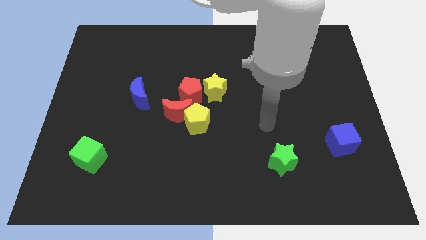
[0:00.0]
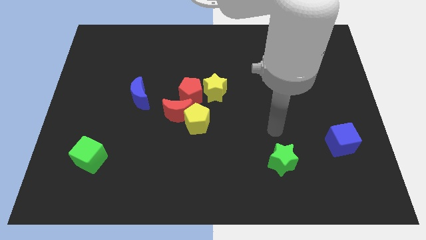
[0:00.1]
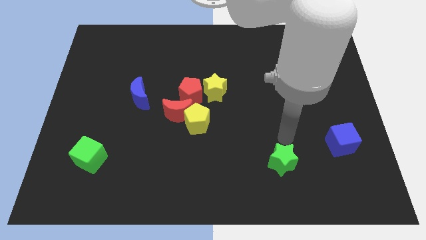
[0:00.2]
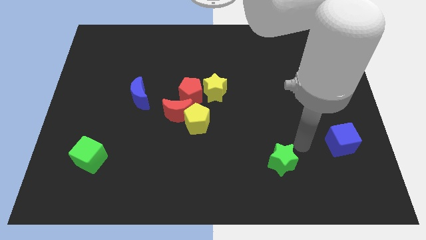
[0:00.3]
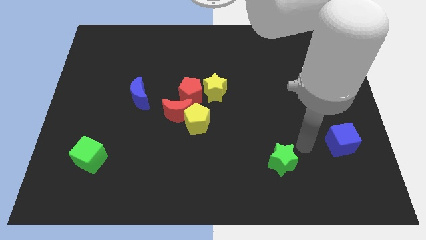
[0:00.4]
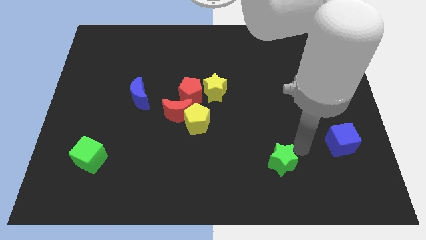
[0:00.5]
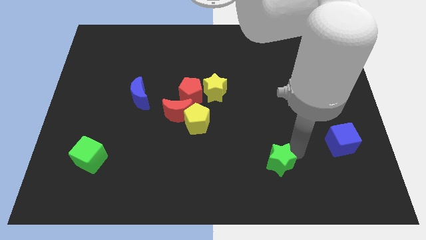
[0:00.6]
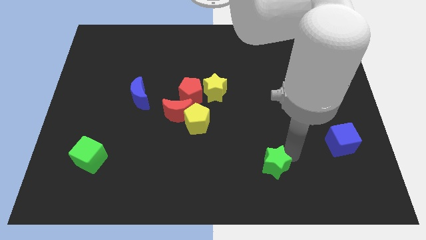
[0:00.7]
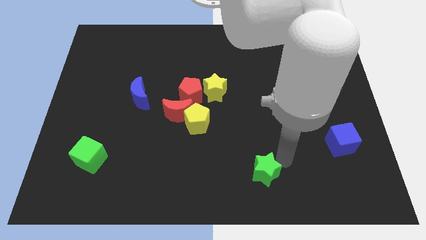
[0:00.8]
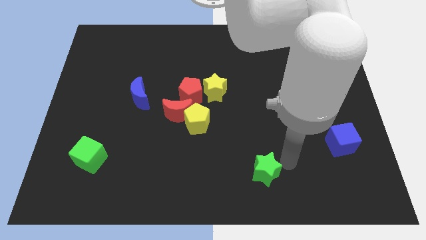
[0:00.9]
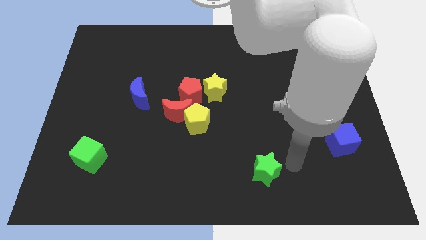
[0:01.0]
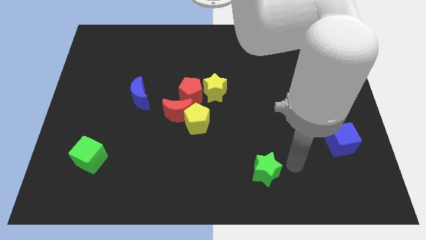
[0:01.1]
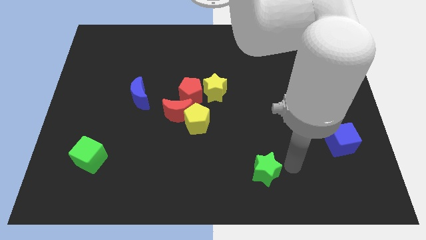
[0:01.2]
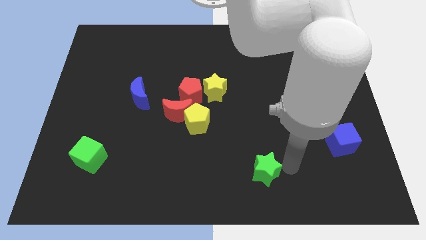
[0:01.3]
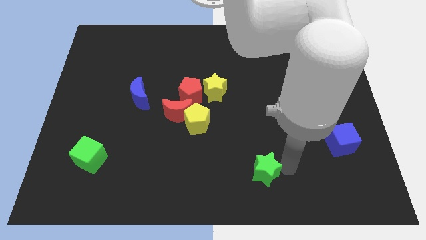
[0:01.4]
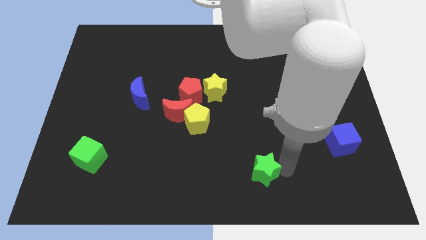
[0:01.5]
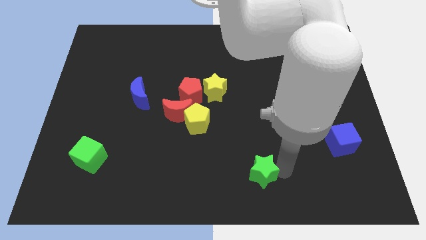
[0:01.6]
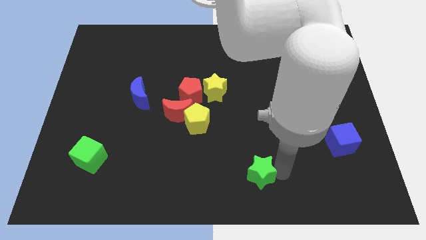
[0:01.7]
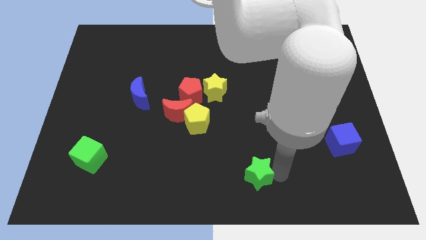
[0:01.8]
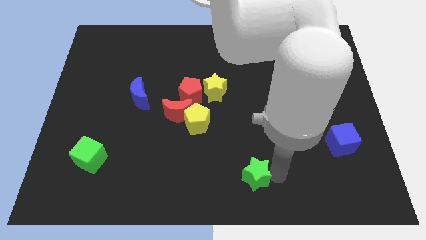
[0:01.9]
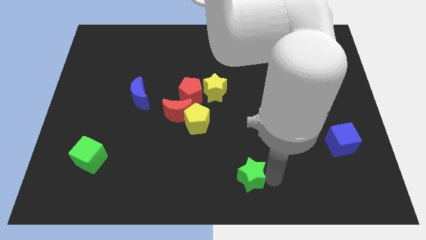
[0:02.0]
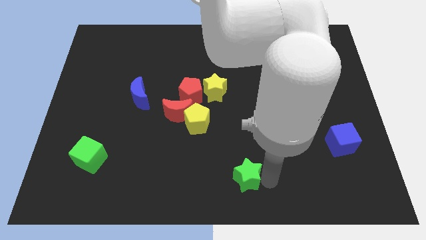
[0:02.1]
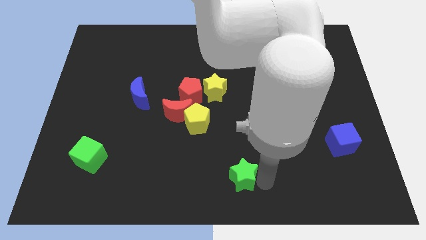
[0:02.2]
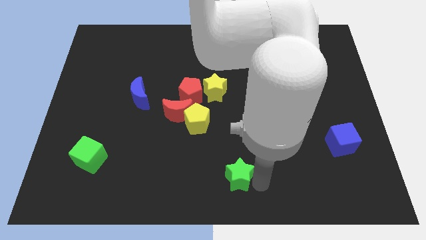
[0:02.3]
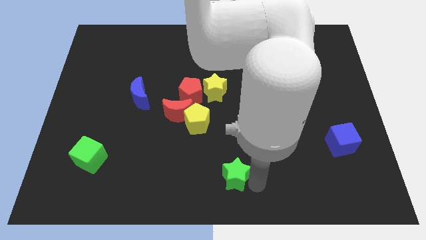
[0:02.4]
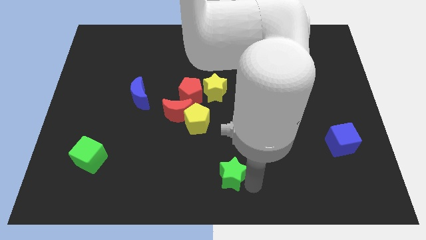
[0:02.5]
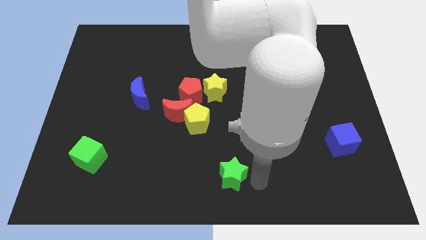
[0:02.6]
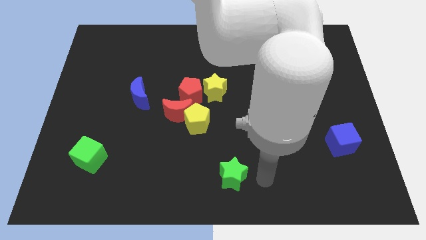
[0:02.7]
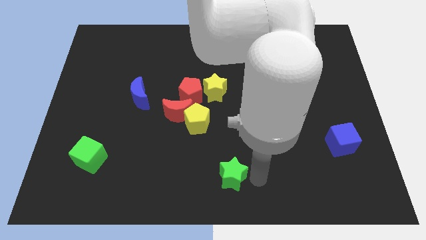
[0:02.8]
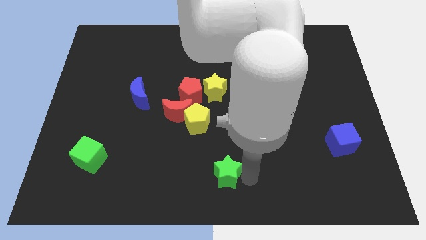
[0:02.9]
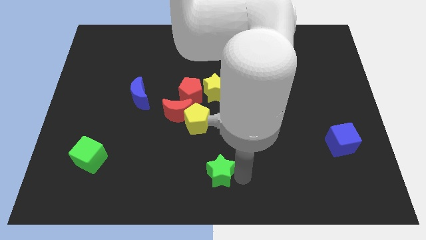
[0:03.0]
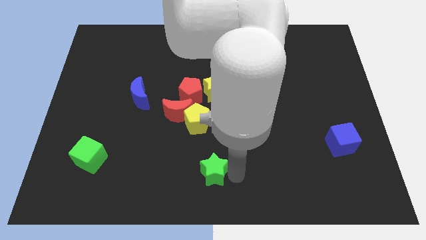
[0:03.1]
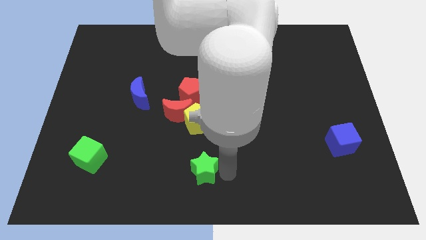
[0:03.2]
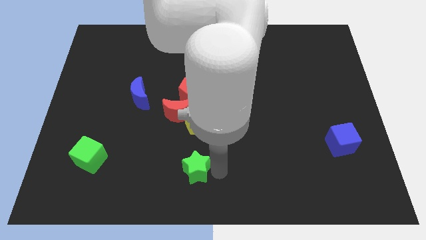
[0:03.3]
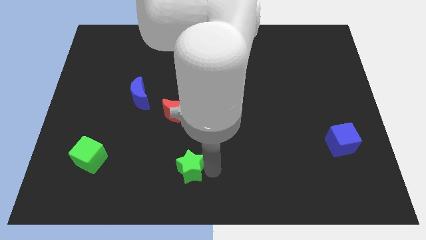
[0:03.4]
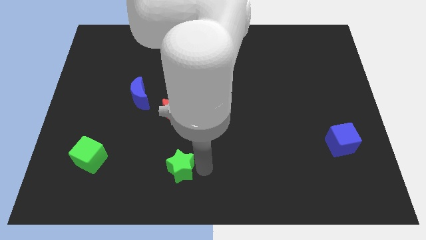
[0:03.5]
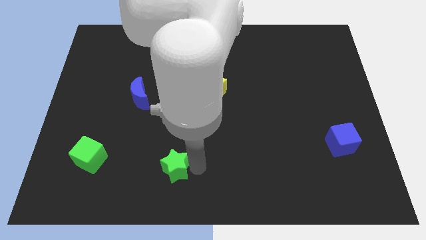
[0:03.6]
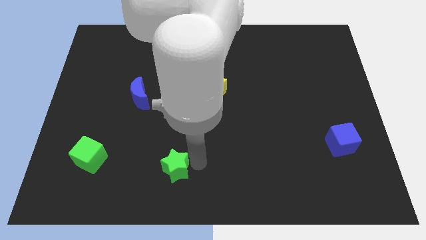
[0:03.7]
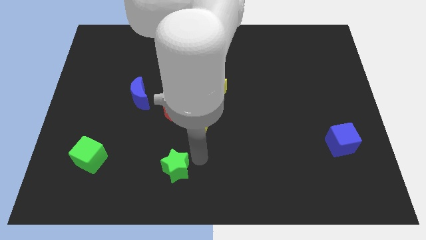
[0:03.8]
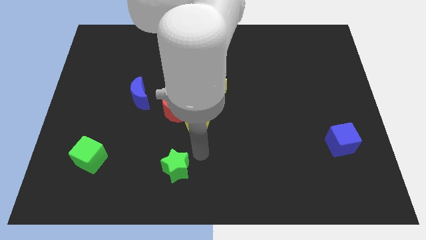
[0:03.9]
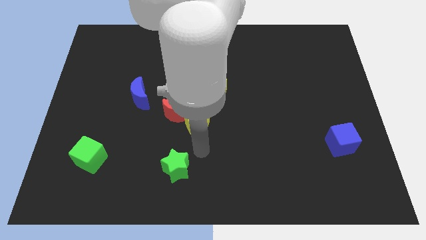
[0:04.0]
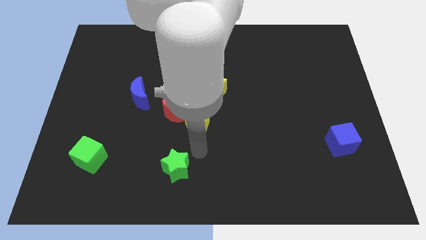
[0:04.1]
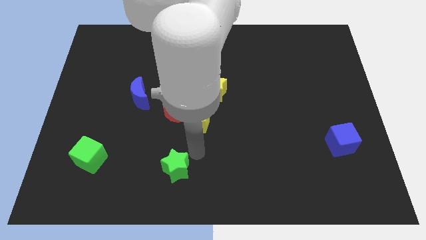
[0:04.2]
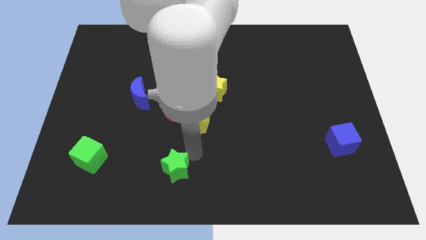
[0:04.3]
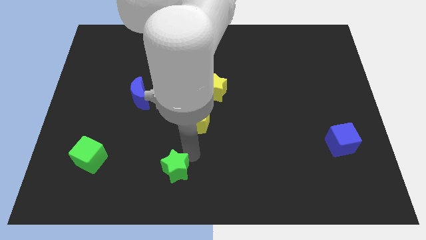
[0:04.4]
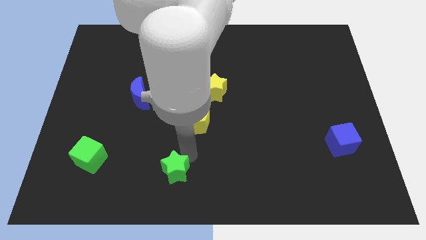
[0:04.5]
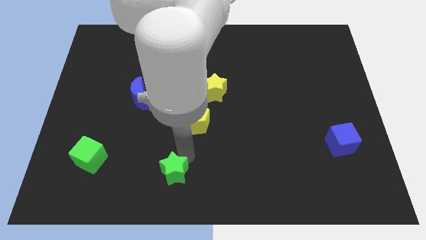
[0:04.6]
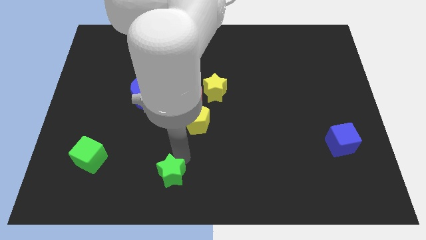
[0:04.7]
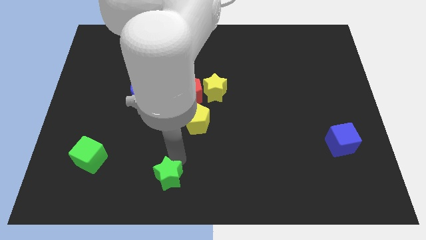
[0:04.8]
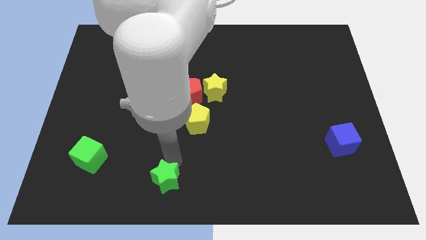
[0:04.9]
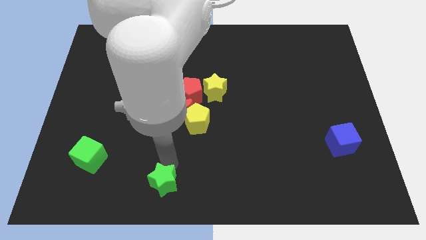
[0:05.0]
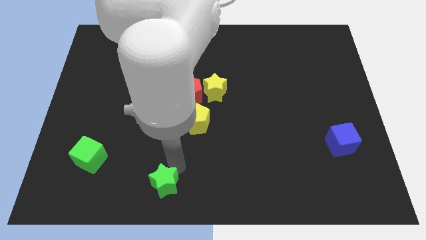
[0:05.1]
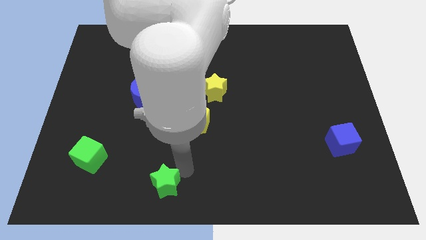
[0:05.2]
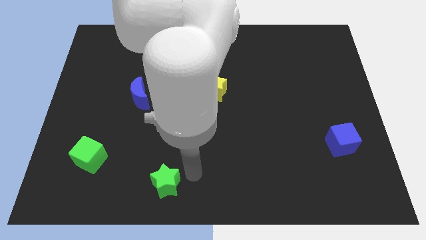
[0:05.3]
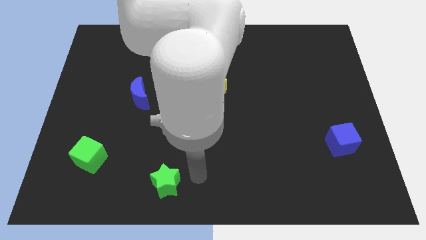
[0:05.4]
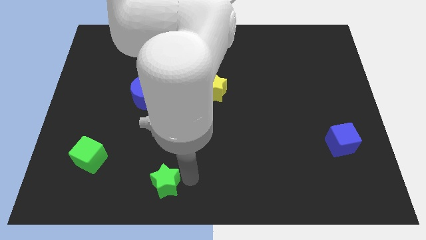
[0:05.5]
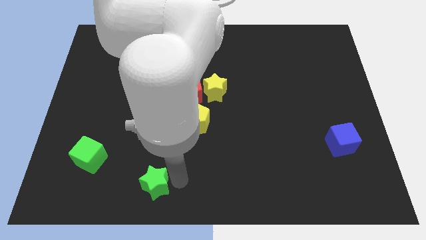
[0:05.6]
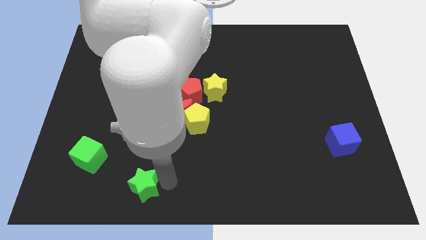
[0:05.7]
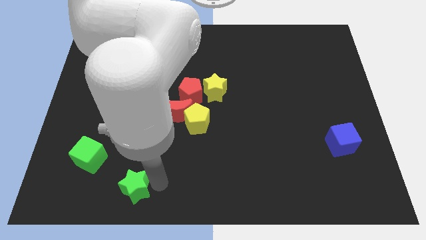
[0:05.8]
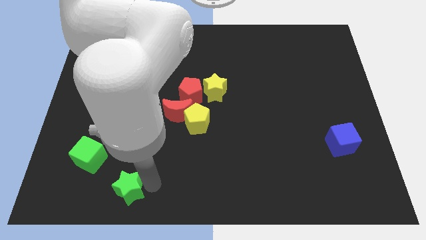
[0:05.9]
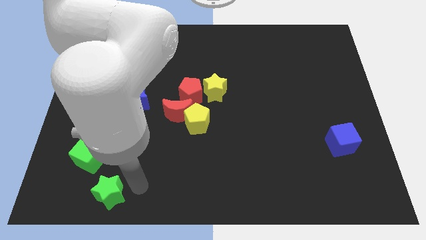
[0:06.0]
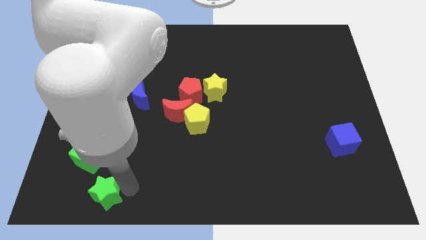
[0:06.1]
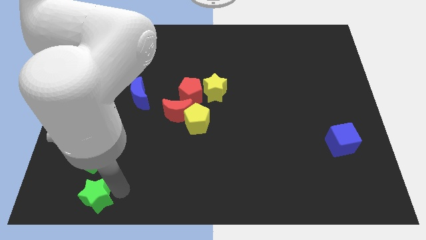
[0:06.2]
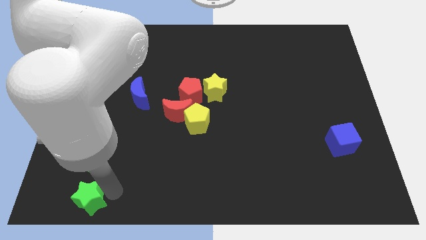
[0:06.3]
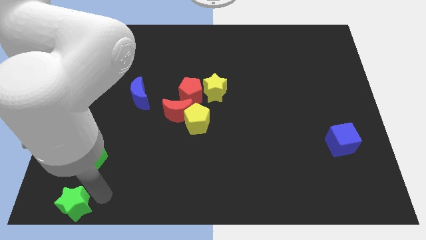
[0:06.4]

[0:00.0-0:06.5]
put the green star to the lower left corner

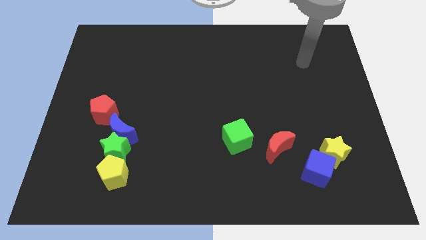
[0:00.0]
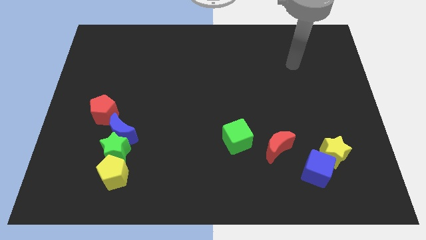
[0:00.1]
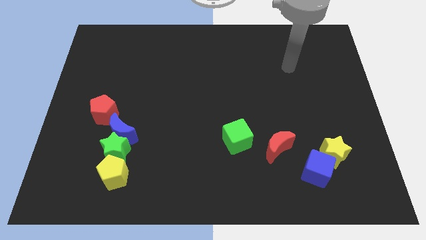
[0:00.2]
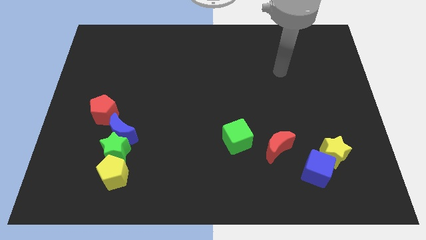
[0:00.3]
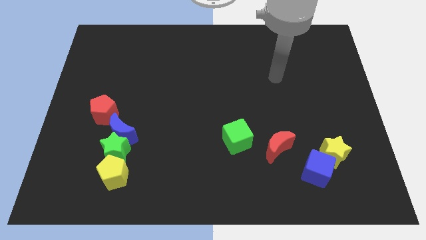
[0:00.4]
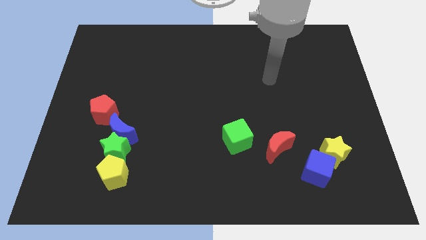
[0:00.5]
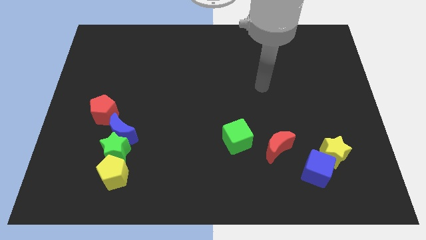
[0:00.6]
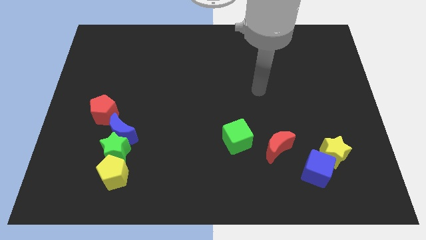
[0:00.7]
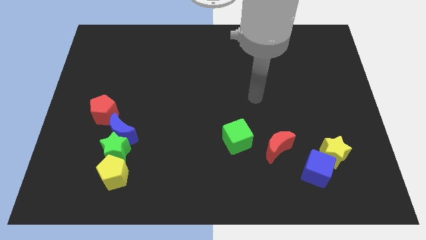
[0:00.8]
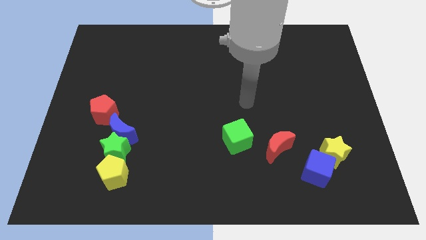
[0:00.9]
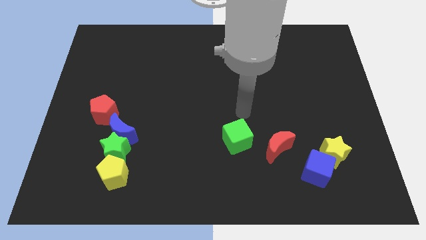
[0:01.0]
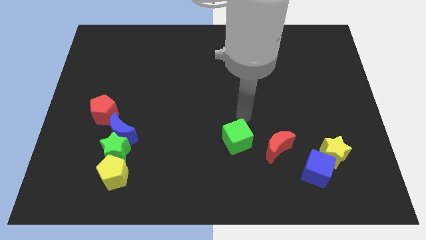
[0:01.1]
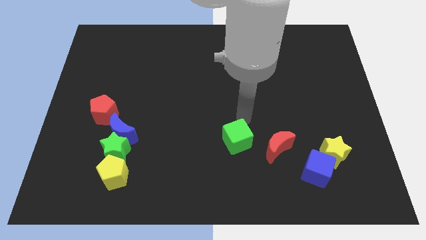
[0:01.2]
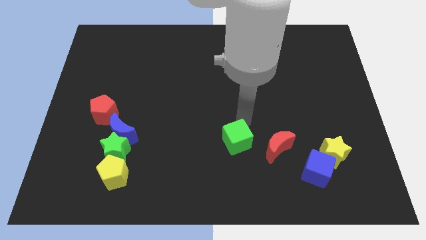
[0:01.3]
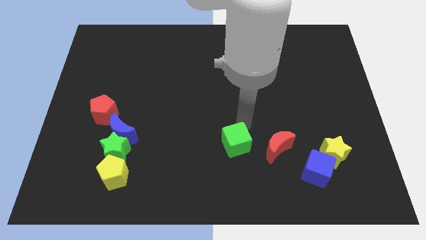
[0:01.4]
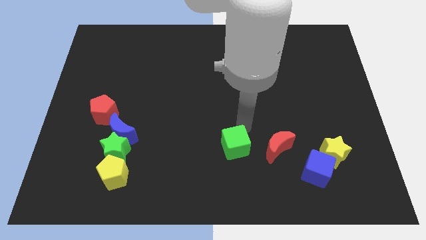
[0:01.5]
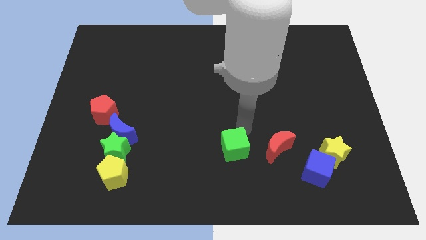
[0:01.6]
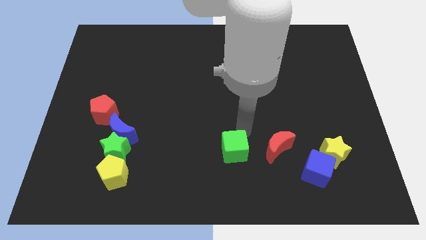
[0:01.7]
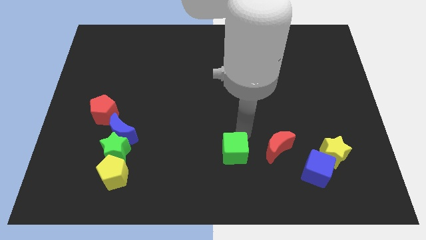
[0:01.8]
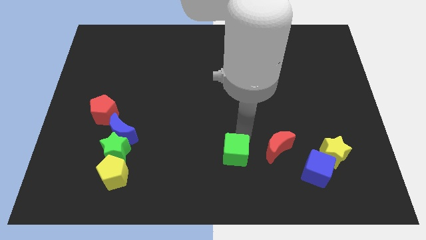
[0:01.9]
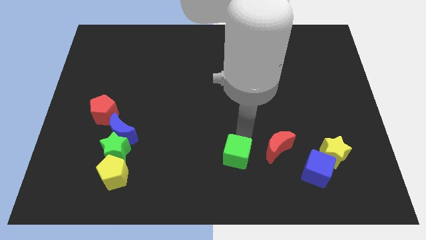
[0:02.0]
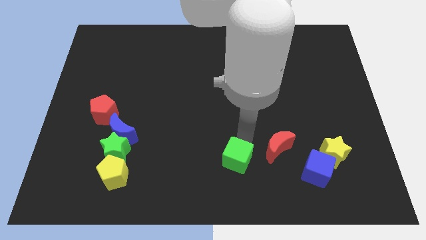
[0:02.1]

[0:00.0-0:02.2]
put the green cube to the bottom side
